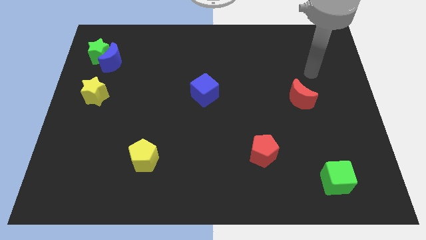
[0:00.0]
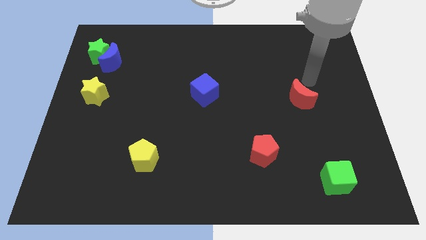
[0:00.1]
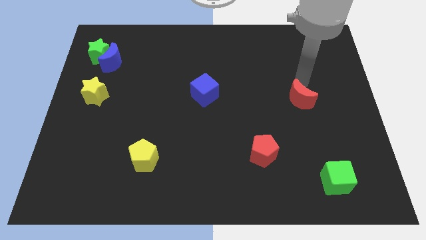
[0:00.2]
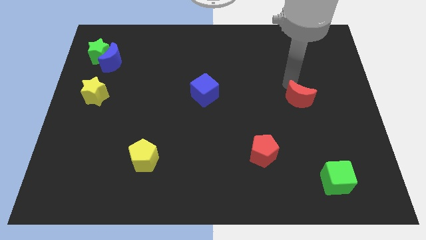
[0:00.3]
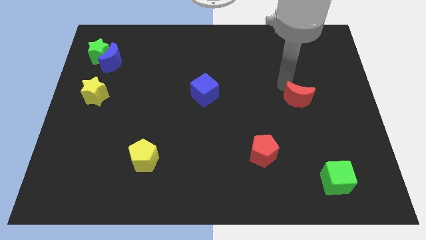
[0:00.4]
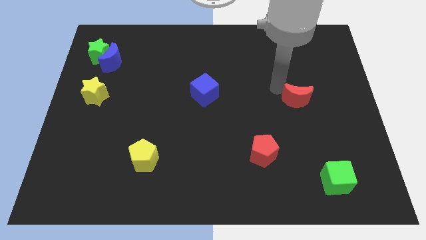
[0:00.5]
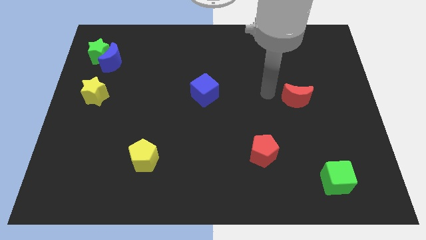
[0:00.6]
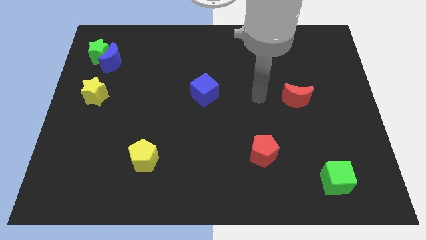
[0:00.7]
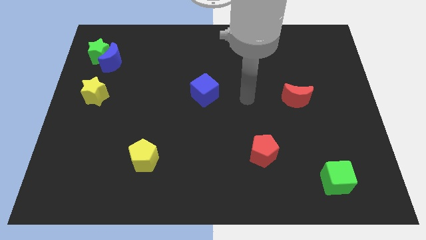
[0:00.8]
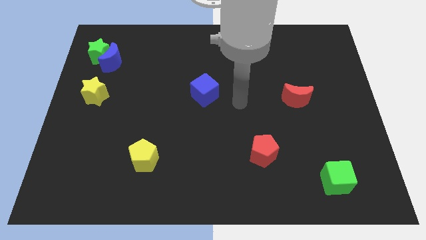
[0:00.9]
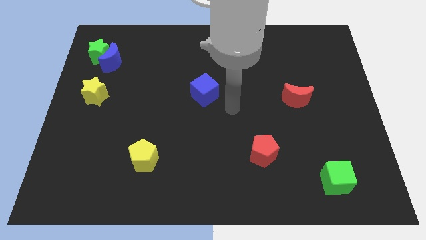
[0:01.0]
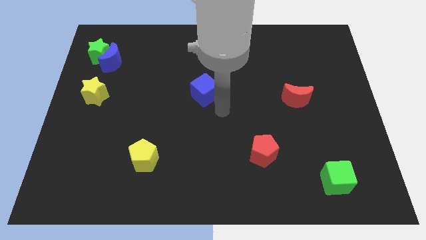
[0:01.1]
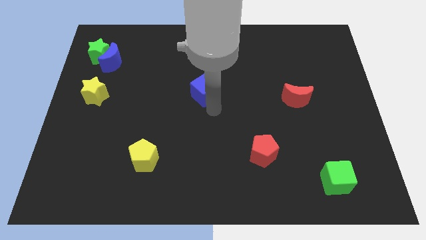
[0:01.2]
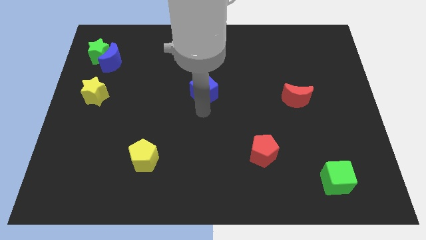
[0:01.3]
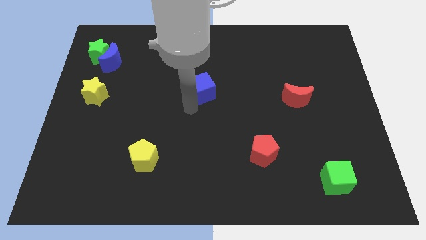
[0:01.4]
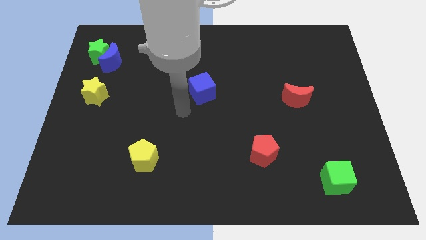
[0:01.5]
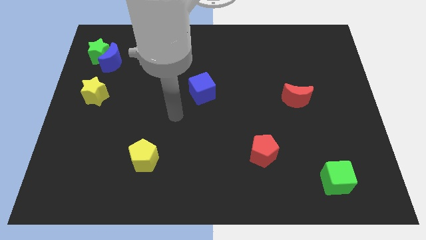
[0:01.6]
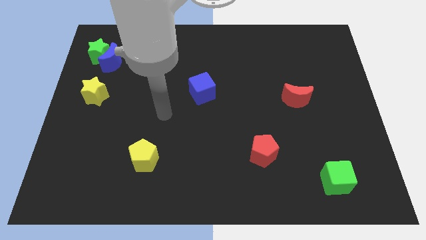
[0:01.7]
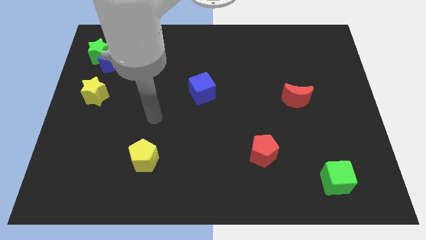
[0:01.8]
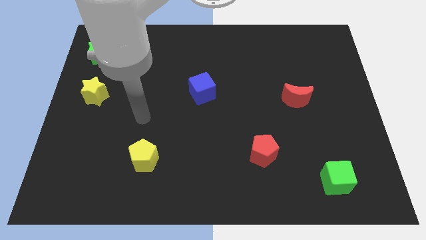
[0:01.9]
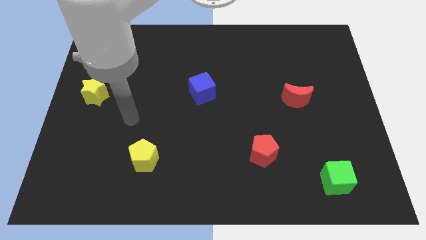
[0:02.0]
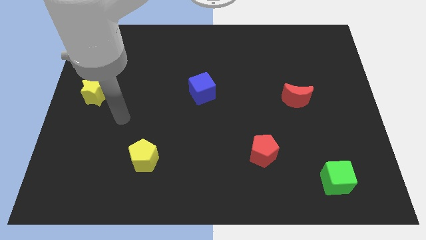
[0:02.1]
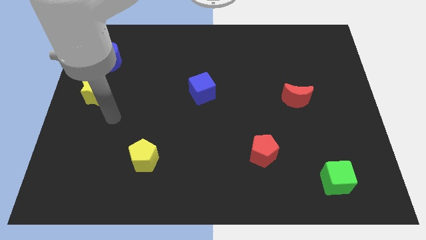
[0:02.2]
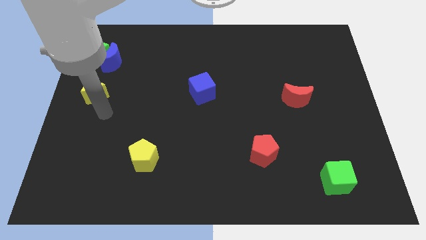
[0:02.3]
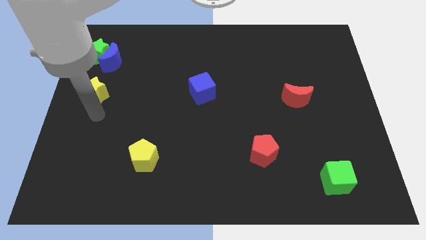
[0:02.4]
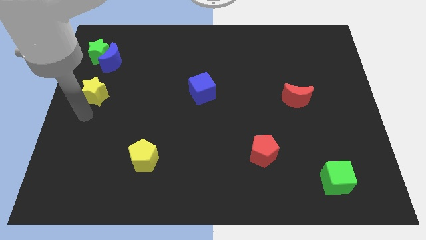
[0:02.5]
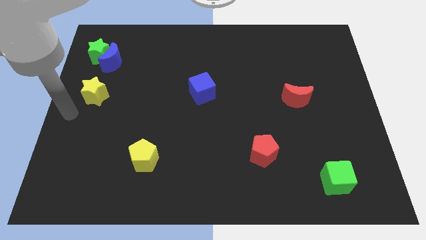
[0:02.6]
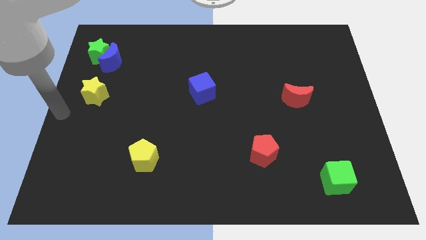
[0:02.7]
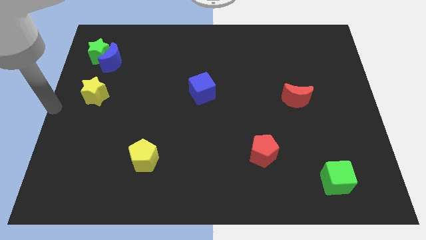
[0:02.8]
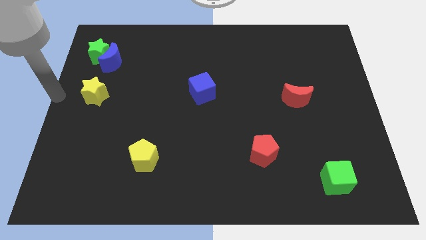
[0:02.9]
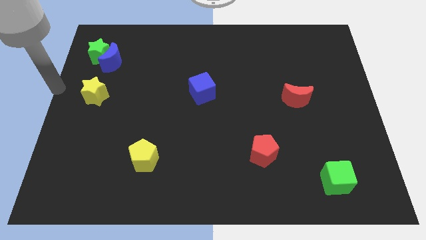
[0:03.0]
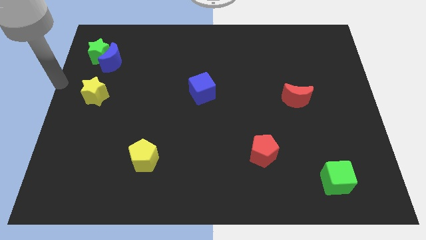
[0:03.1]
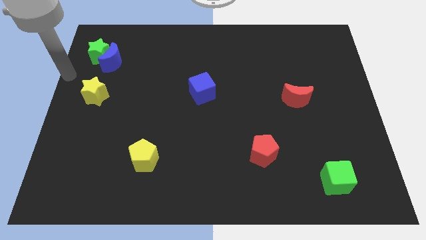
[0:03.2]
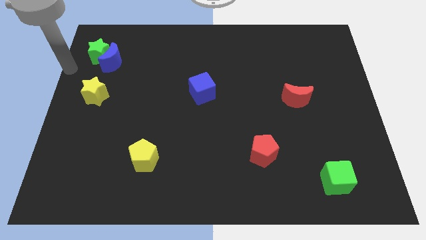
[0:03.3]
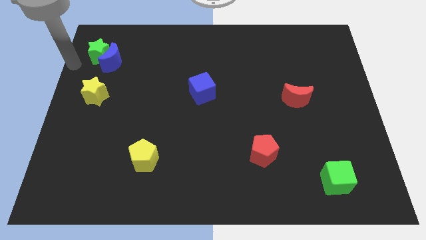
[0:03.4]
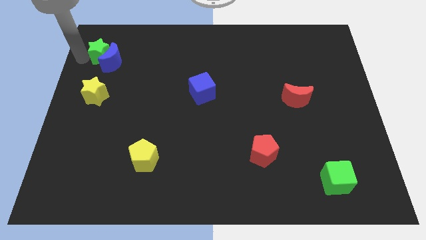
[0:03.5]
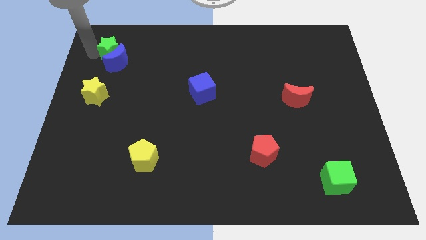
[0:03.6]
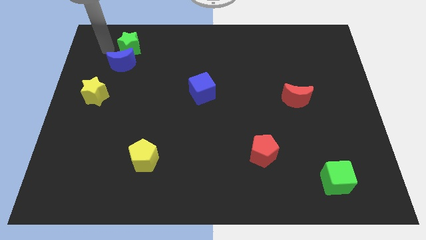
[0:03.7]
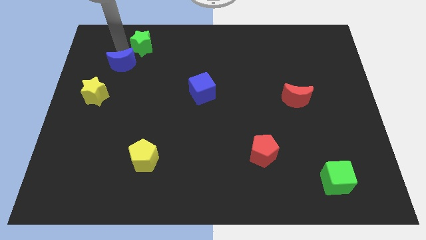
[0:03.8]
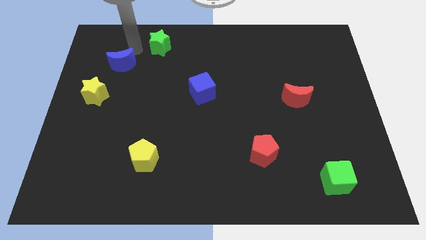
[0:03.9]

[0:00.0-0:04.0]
pull the blue moon apart from the green star

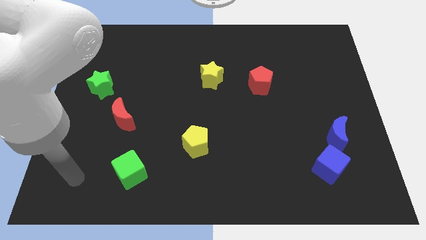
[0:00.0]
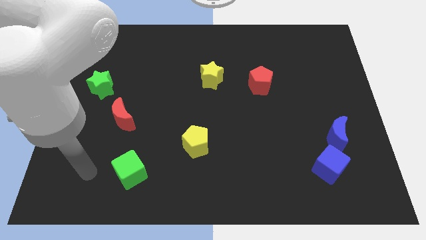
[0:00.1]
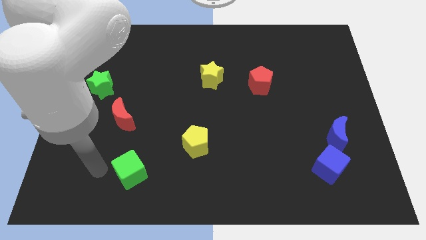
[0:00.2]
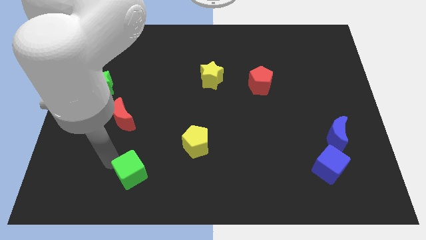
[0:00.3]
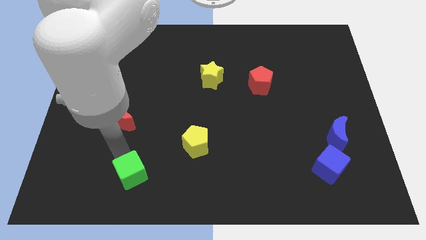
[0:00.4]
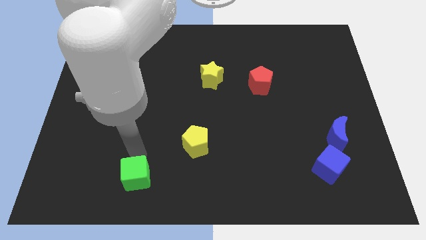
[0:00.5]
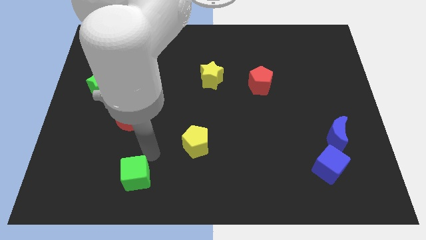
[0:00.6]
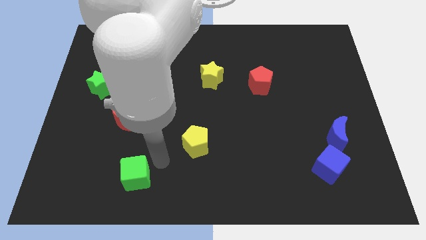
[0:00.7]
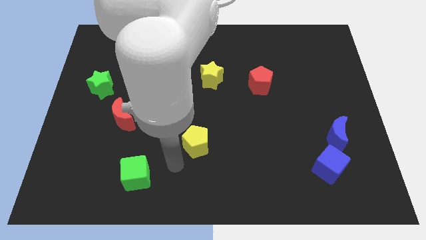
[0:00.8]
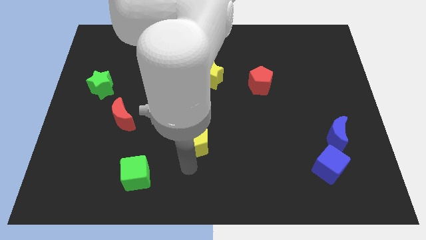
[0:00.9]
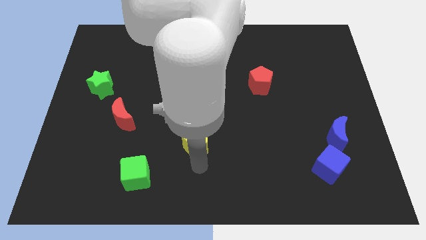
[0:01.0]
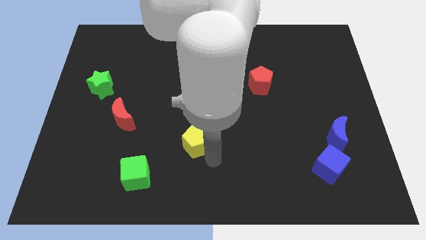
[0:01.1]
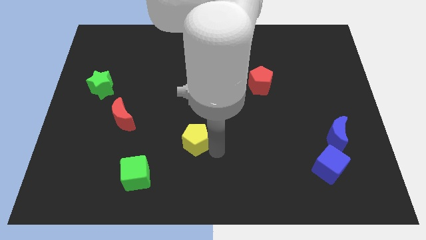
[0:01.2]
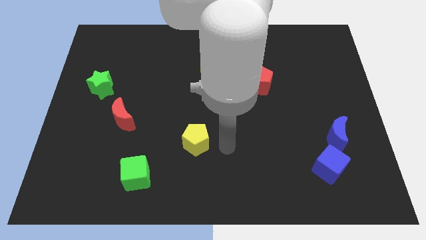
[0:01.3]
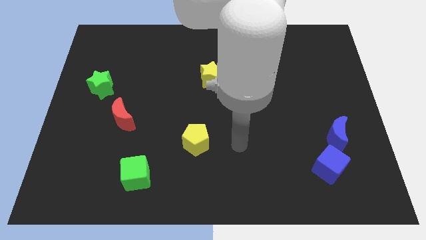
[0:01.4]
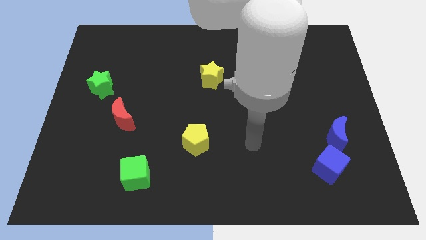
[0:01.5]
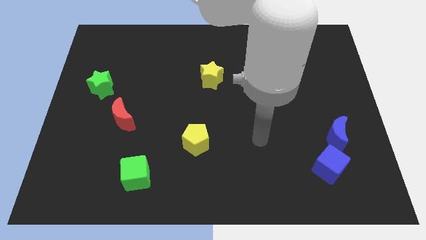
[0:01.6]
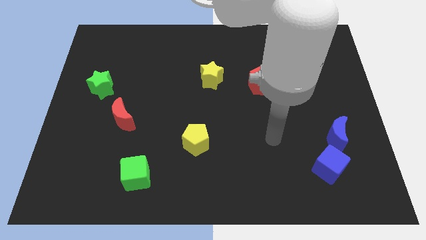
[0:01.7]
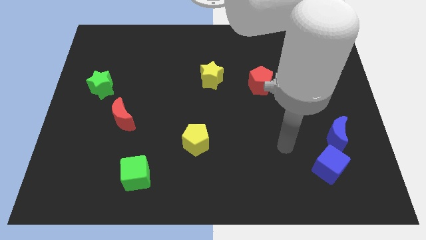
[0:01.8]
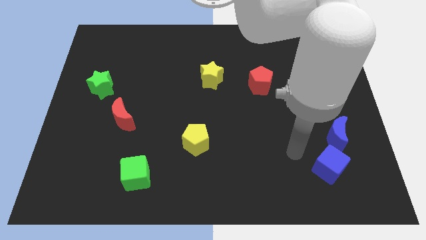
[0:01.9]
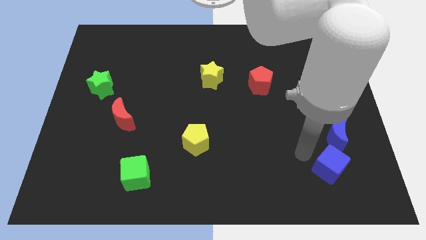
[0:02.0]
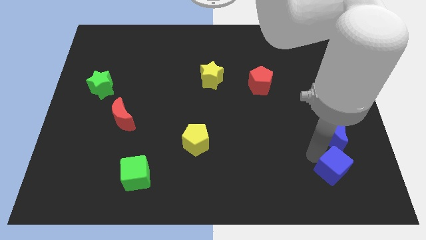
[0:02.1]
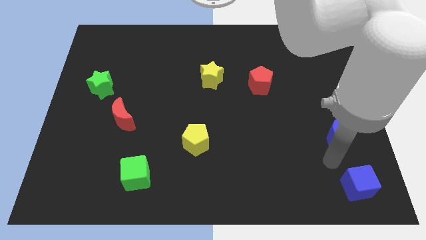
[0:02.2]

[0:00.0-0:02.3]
pull the blue moon apart from the blue cube

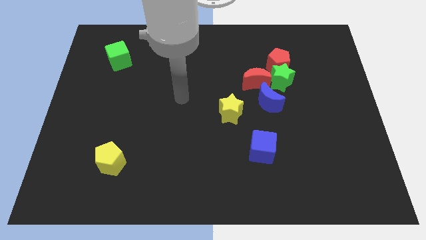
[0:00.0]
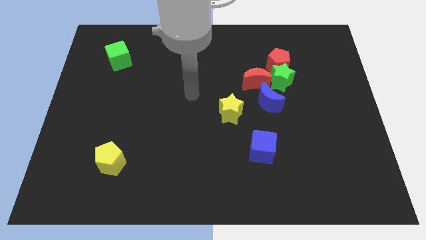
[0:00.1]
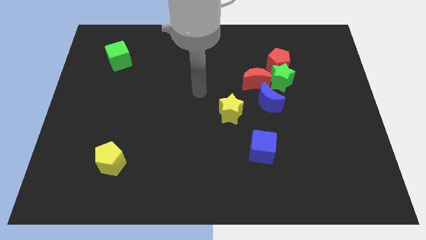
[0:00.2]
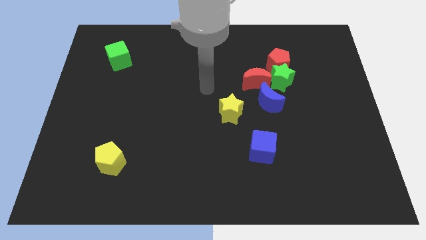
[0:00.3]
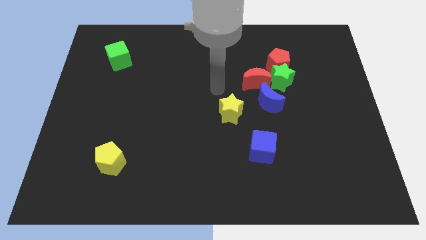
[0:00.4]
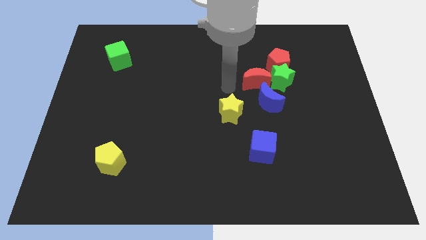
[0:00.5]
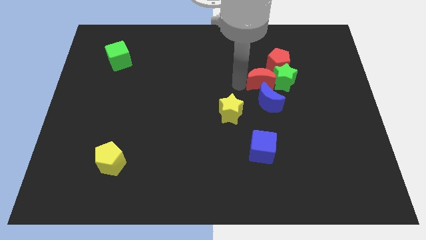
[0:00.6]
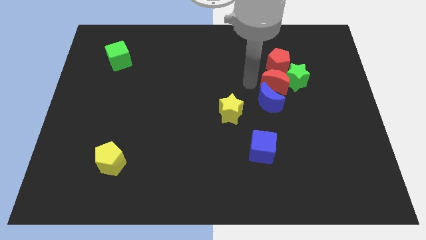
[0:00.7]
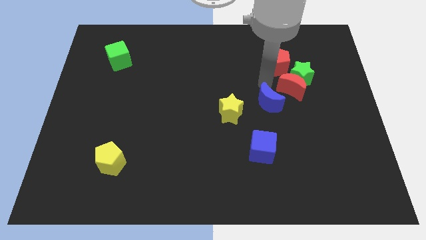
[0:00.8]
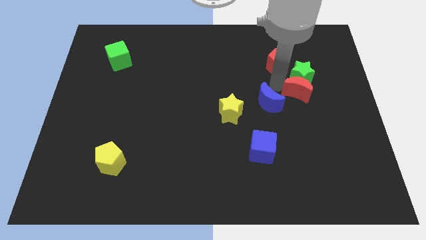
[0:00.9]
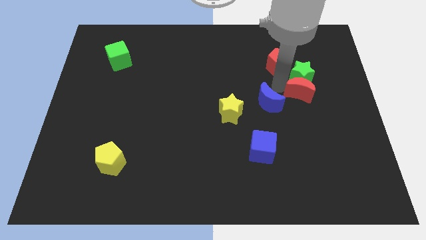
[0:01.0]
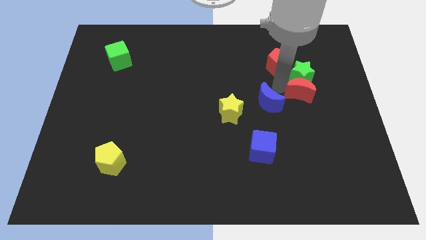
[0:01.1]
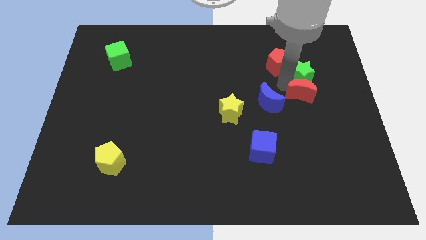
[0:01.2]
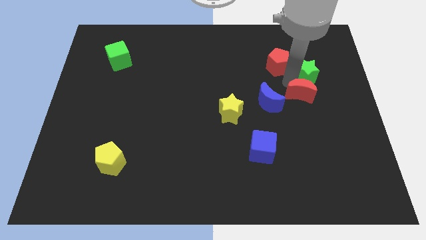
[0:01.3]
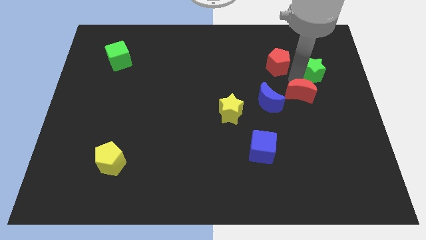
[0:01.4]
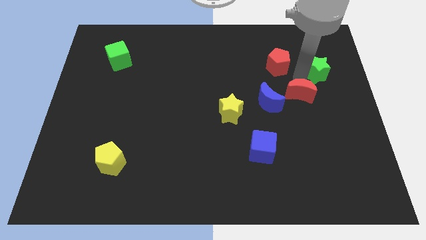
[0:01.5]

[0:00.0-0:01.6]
pull the green star apart from the group of blocks

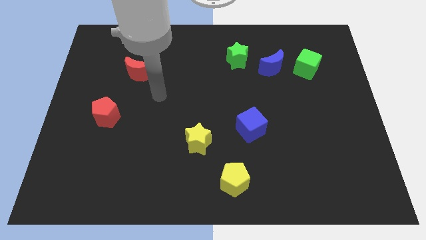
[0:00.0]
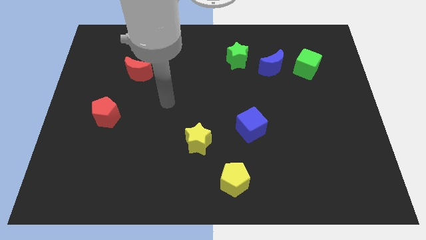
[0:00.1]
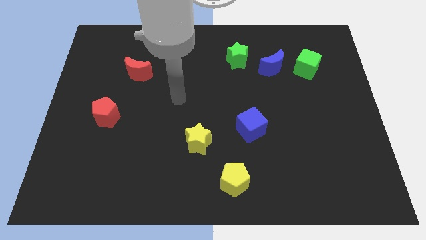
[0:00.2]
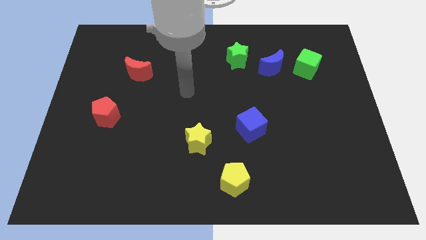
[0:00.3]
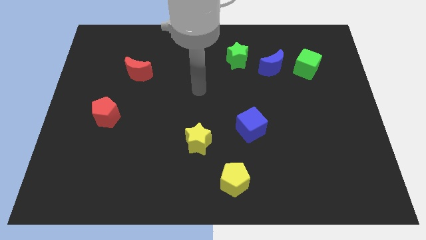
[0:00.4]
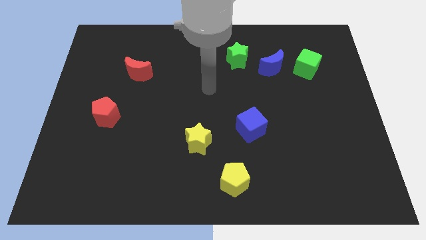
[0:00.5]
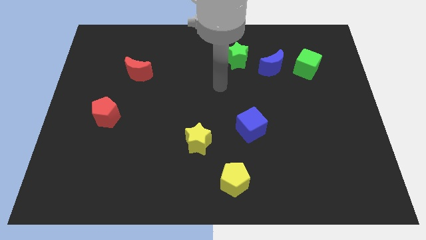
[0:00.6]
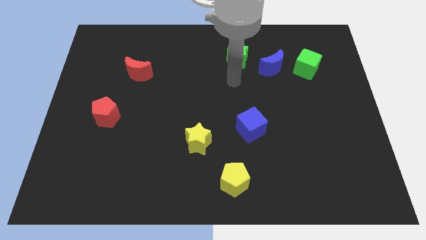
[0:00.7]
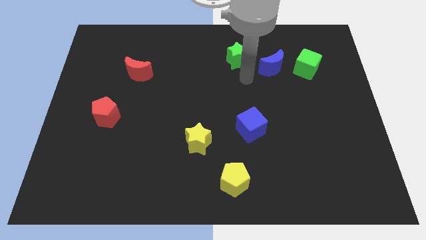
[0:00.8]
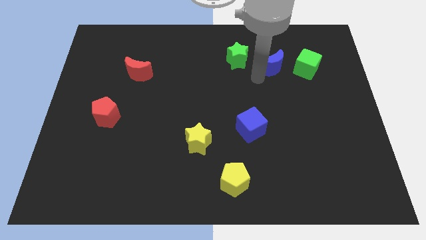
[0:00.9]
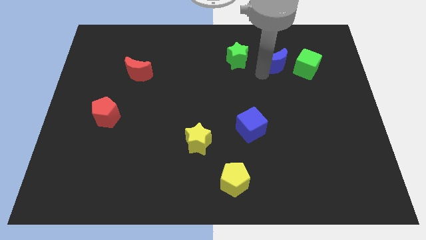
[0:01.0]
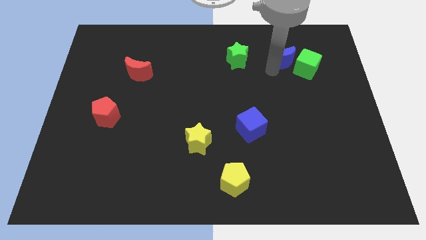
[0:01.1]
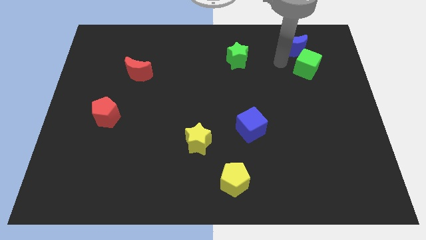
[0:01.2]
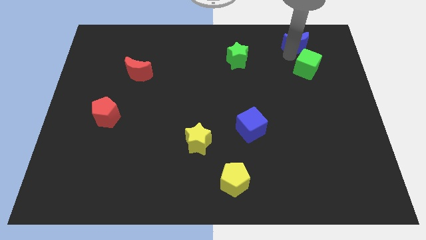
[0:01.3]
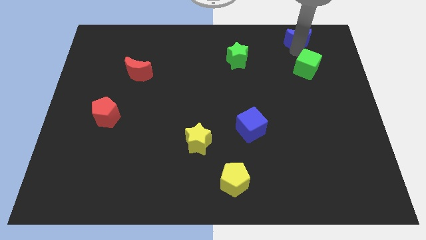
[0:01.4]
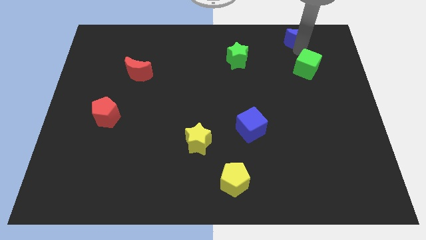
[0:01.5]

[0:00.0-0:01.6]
move the green cube away from the blue moon

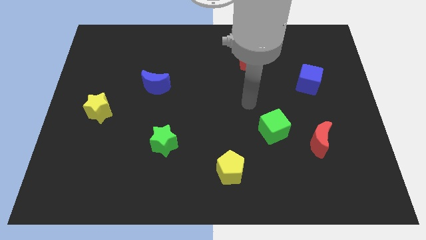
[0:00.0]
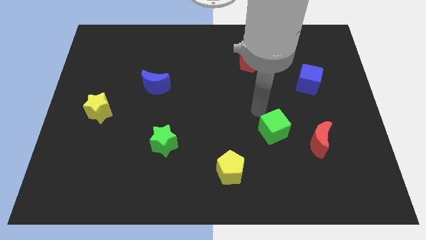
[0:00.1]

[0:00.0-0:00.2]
move the red moon away from the green cube
